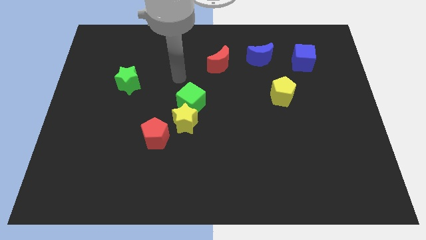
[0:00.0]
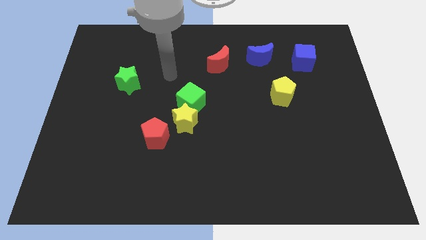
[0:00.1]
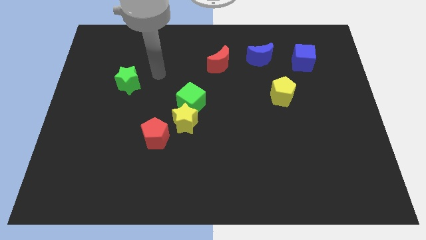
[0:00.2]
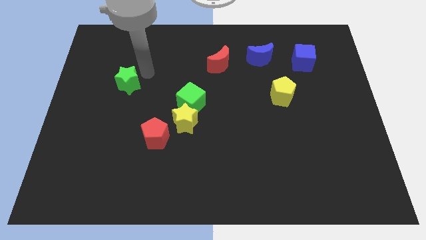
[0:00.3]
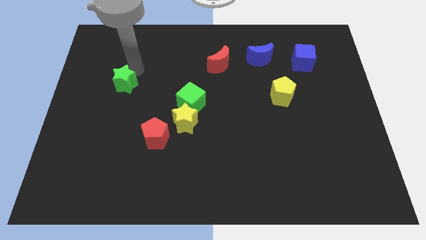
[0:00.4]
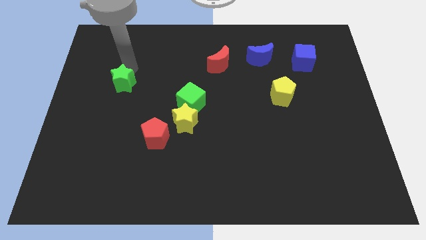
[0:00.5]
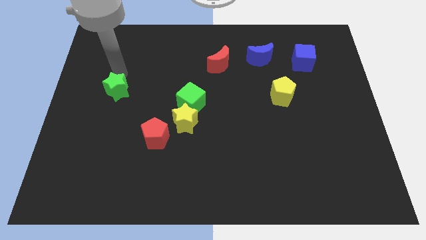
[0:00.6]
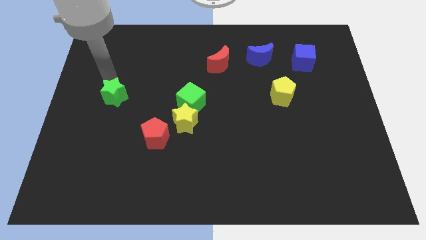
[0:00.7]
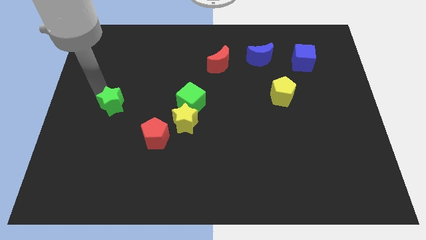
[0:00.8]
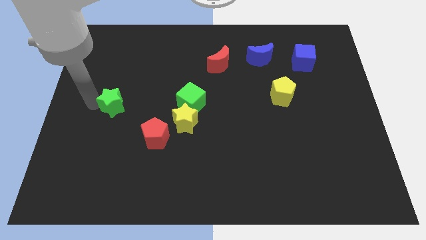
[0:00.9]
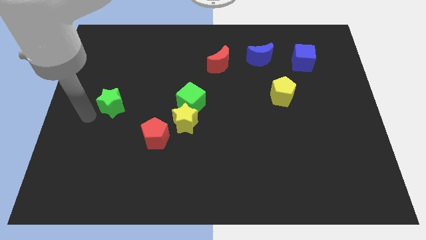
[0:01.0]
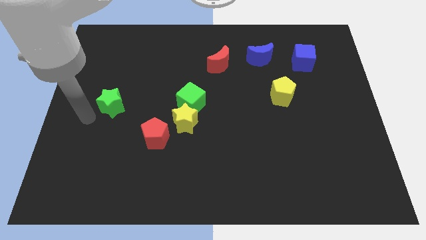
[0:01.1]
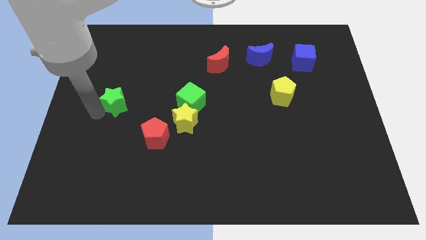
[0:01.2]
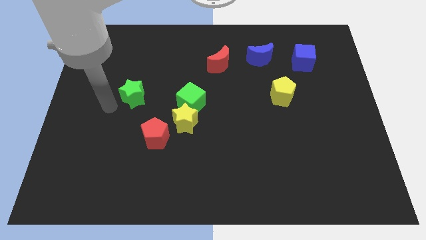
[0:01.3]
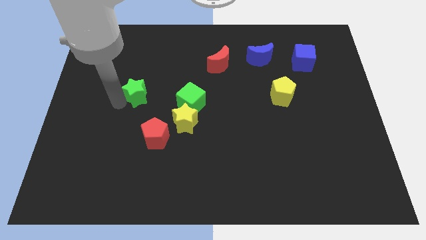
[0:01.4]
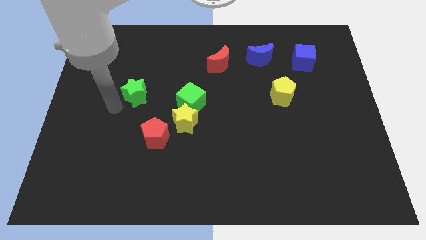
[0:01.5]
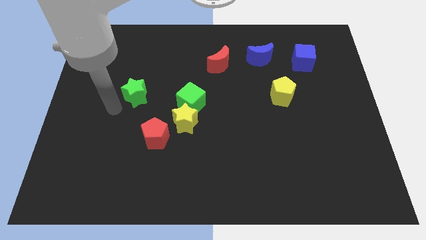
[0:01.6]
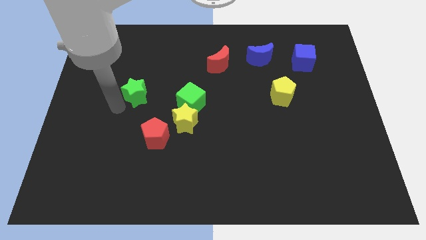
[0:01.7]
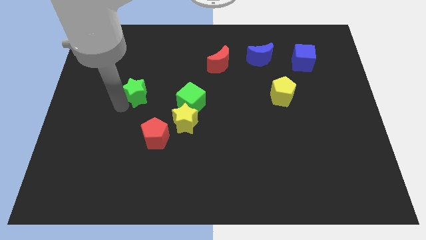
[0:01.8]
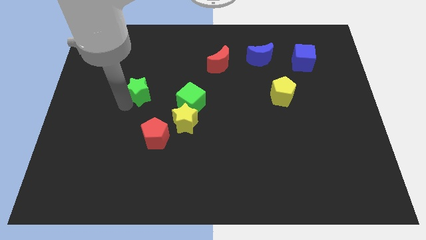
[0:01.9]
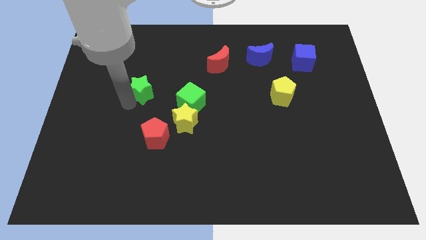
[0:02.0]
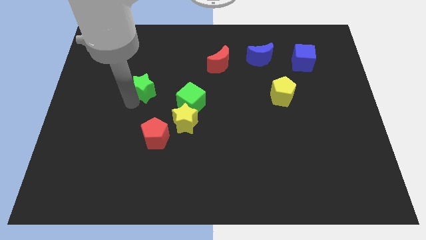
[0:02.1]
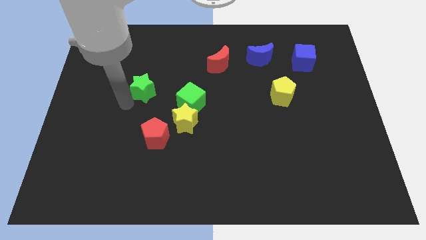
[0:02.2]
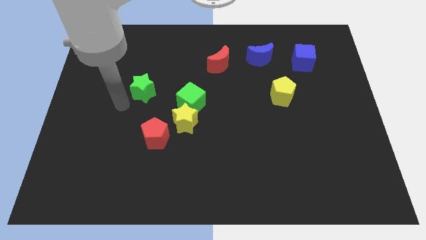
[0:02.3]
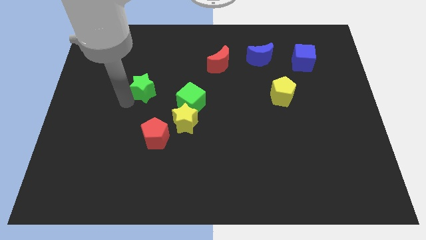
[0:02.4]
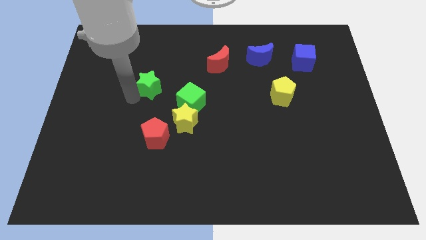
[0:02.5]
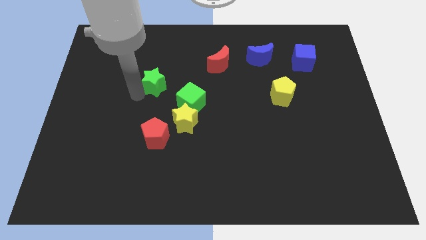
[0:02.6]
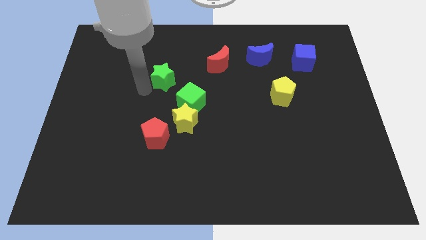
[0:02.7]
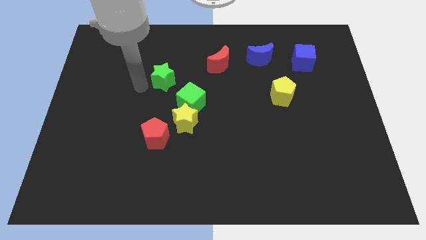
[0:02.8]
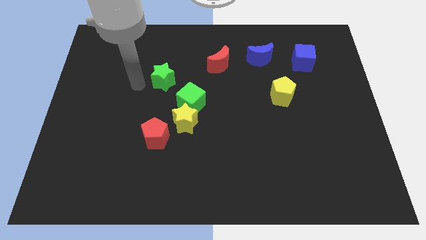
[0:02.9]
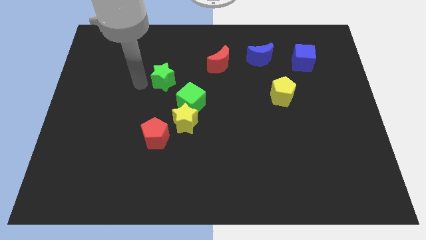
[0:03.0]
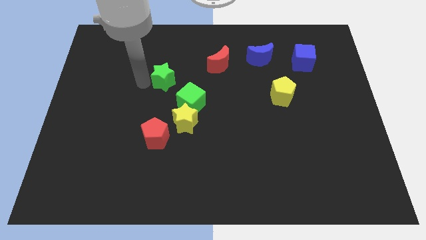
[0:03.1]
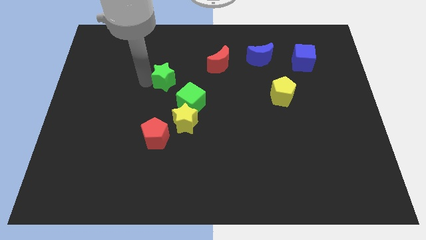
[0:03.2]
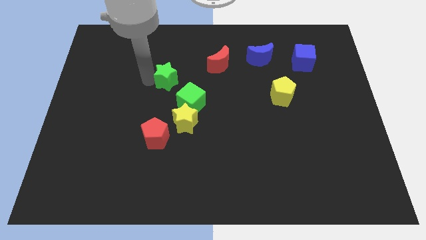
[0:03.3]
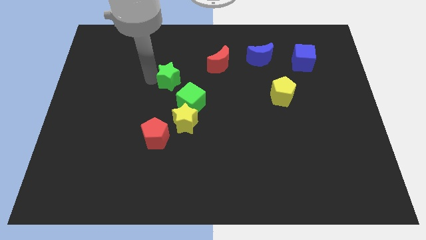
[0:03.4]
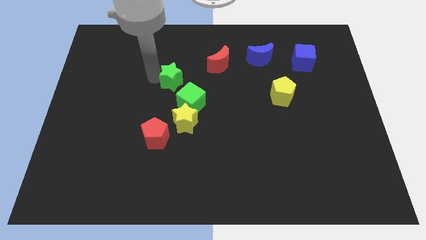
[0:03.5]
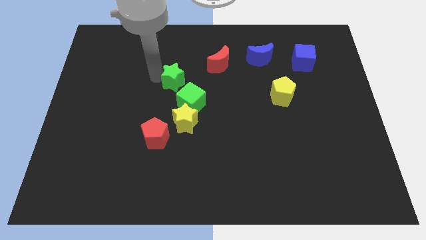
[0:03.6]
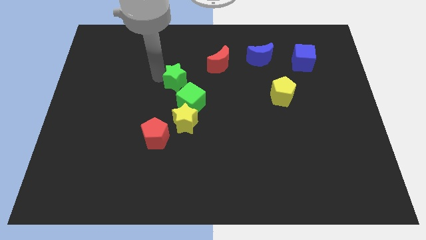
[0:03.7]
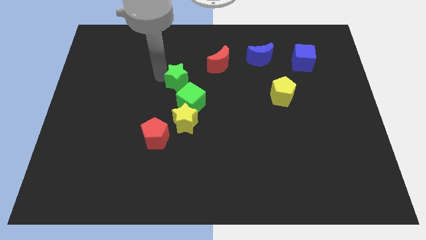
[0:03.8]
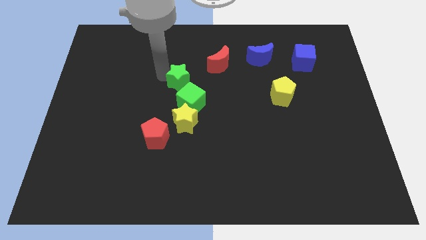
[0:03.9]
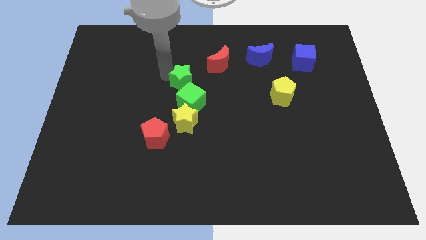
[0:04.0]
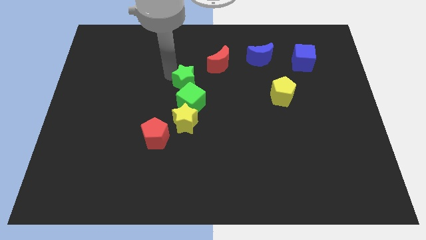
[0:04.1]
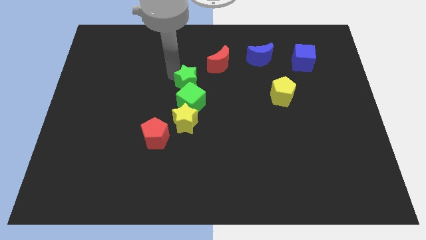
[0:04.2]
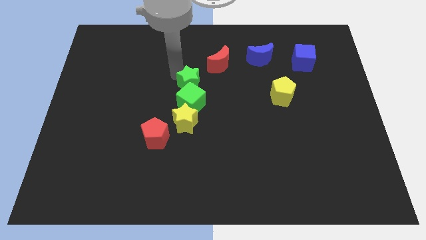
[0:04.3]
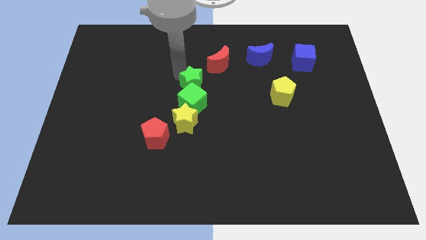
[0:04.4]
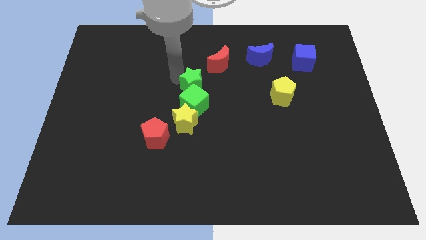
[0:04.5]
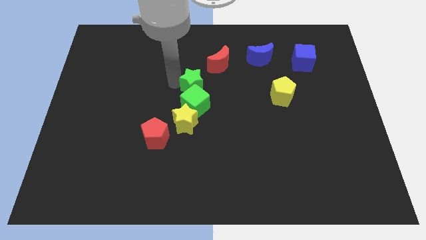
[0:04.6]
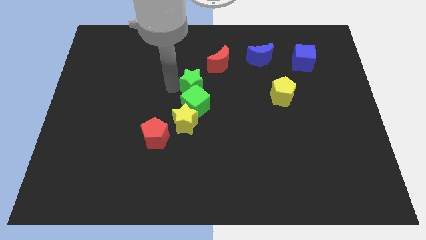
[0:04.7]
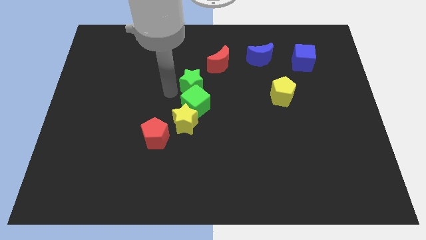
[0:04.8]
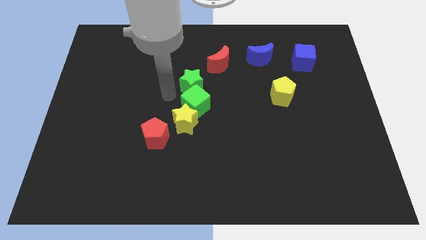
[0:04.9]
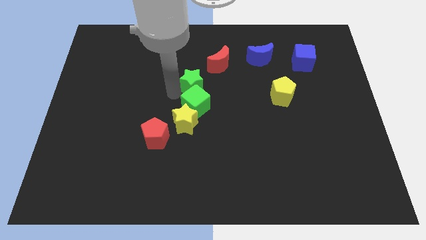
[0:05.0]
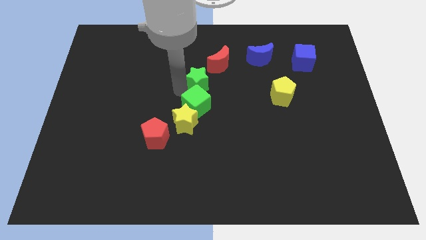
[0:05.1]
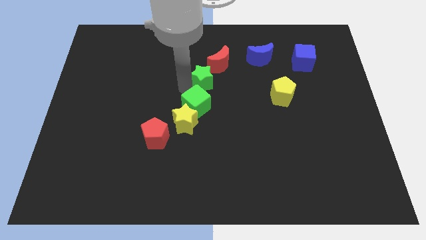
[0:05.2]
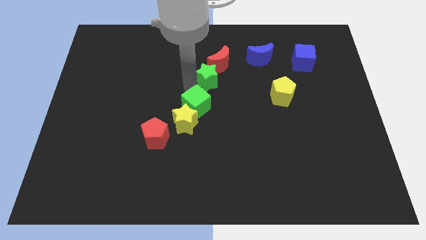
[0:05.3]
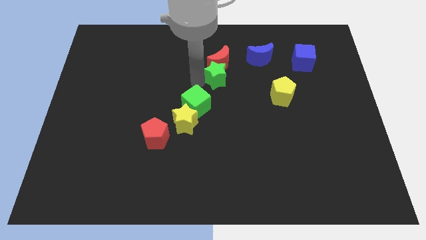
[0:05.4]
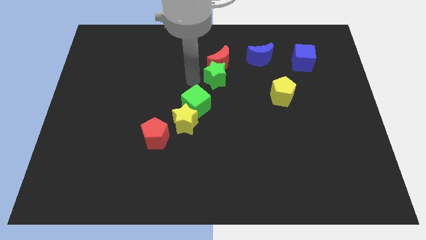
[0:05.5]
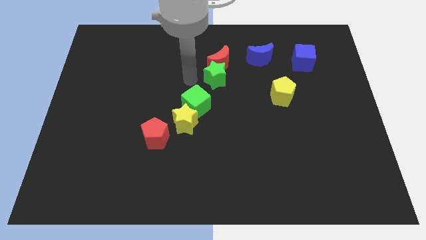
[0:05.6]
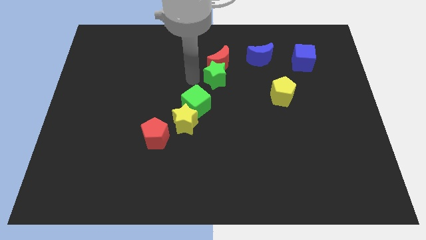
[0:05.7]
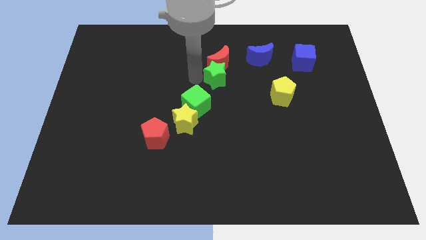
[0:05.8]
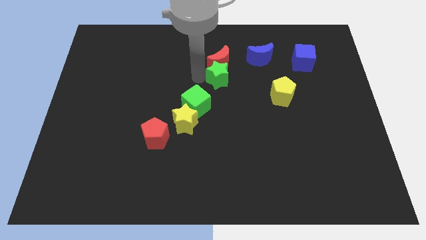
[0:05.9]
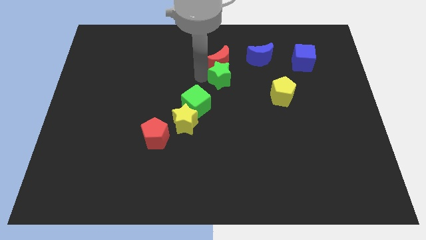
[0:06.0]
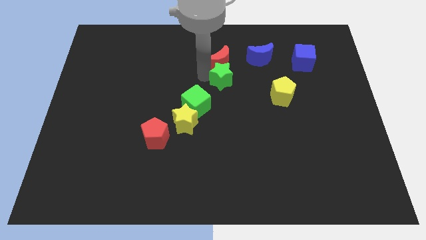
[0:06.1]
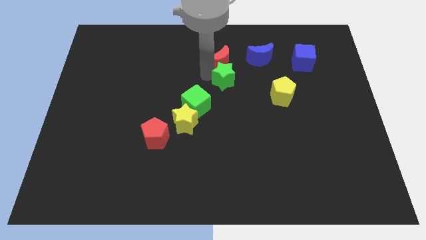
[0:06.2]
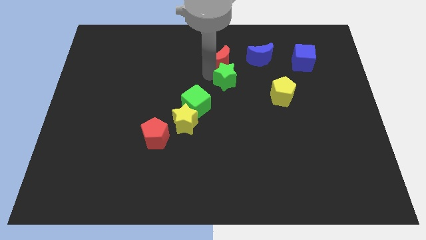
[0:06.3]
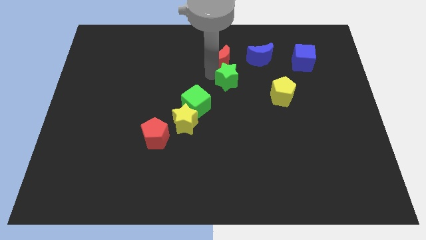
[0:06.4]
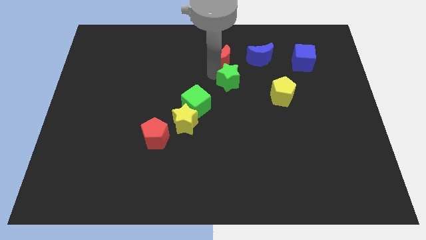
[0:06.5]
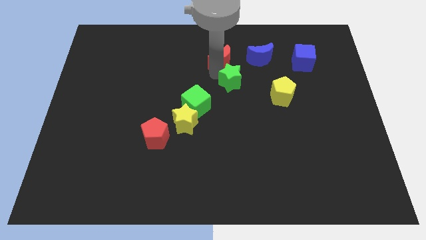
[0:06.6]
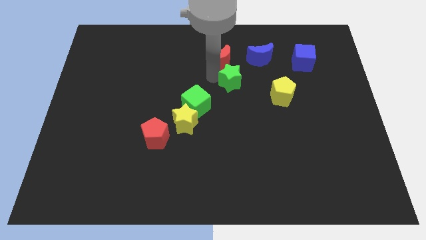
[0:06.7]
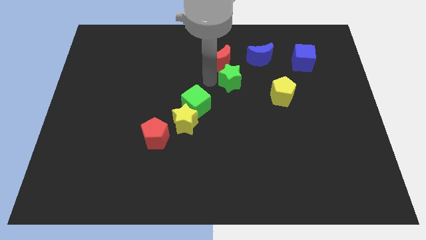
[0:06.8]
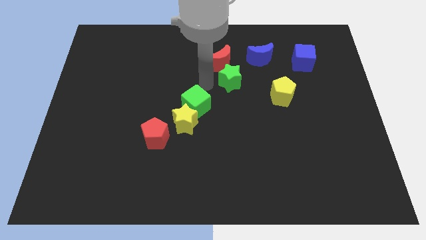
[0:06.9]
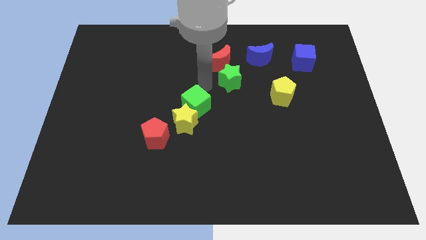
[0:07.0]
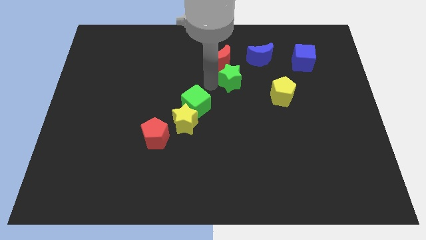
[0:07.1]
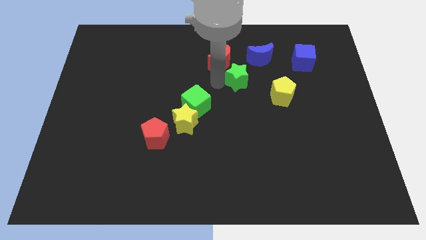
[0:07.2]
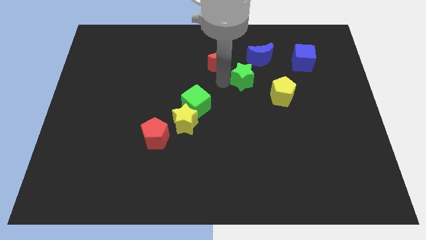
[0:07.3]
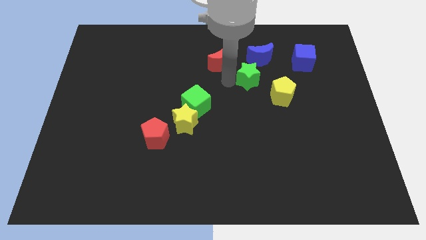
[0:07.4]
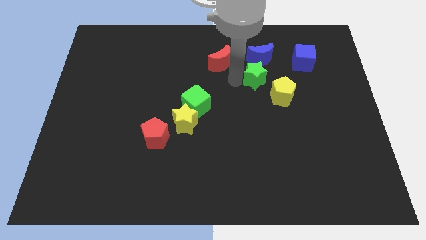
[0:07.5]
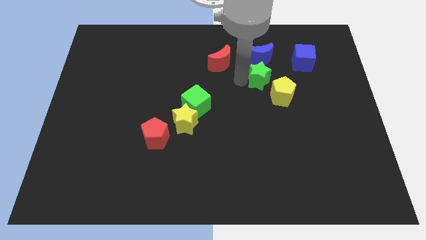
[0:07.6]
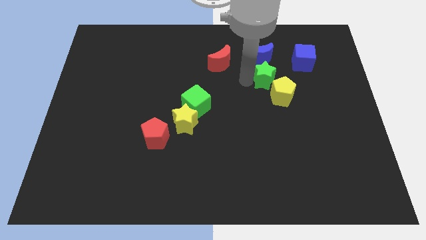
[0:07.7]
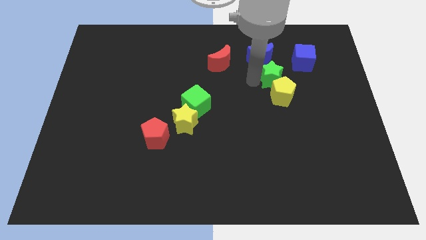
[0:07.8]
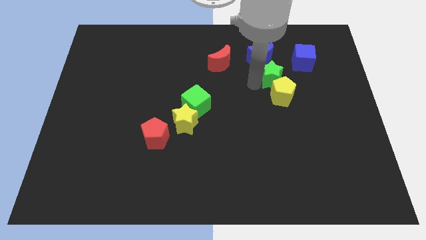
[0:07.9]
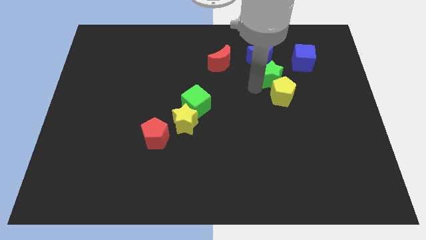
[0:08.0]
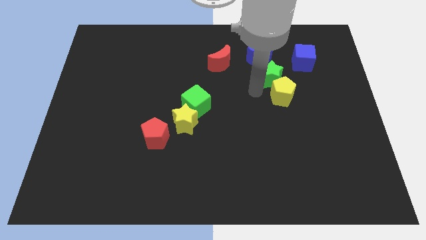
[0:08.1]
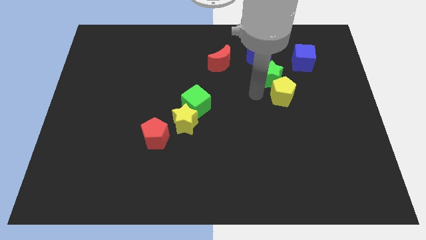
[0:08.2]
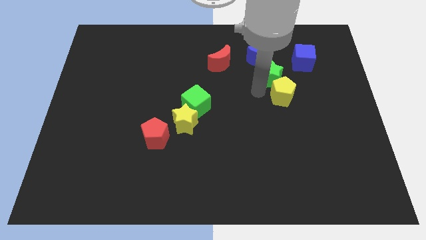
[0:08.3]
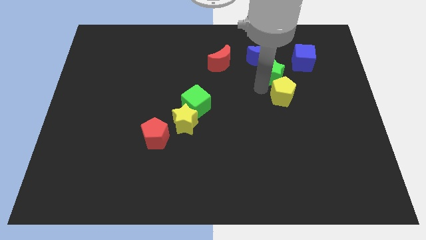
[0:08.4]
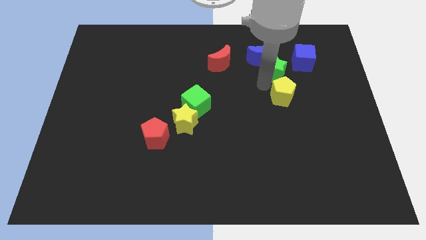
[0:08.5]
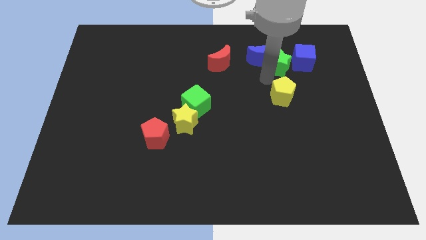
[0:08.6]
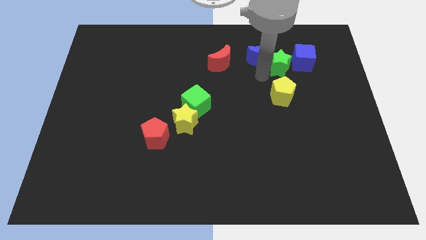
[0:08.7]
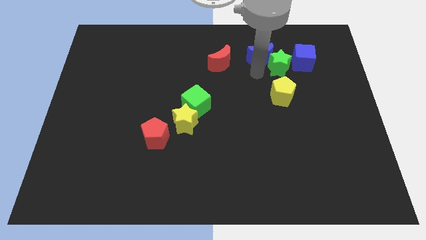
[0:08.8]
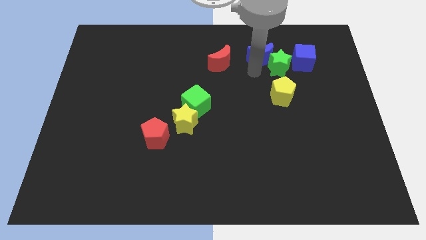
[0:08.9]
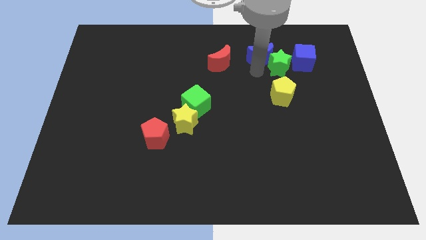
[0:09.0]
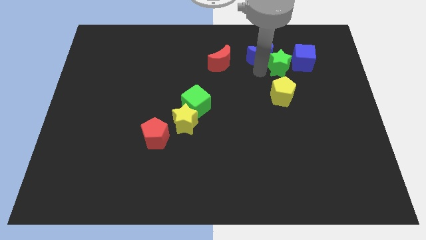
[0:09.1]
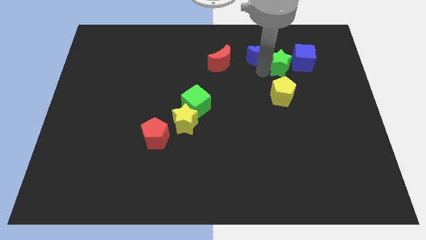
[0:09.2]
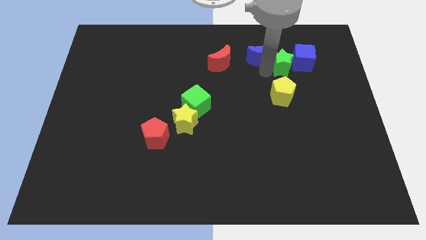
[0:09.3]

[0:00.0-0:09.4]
put the green star towards the blue cube
